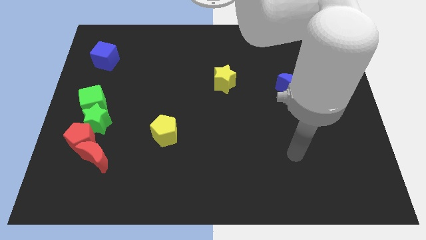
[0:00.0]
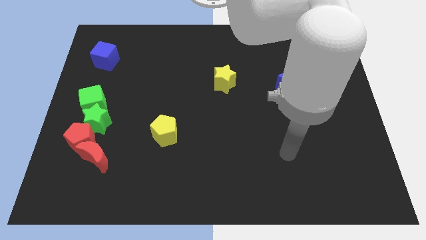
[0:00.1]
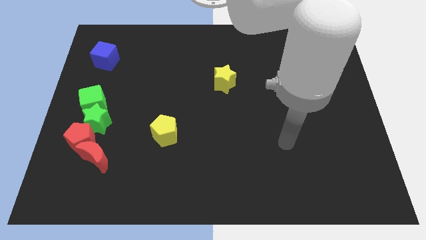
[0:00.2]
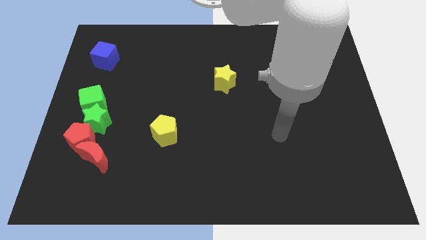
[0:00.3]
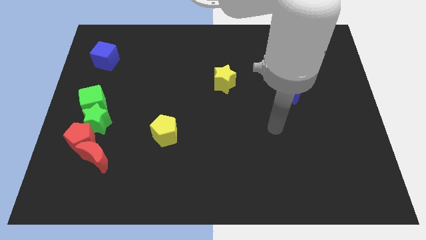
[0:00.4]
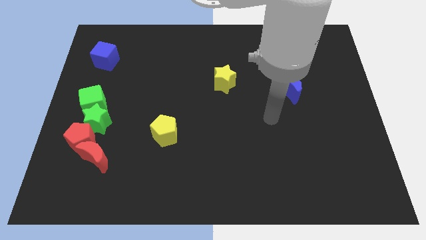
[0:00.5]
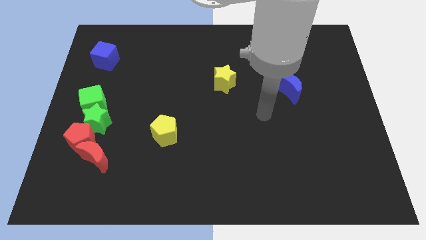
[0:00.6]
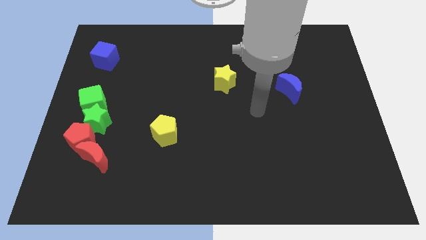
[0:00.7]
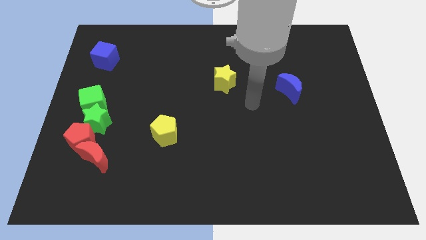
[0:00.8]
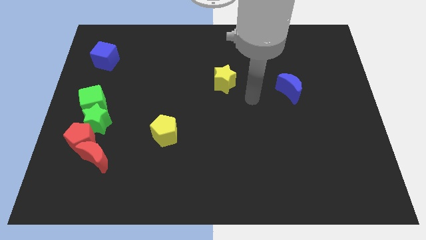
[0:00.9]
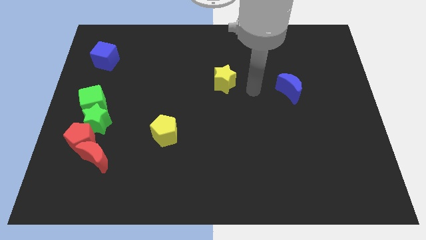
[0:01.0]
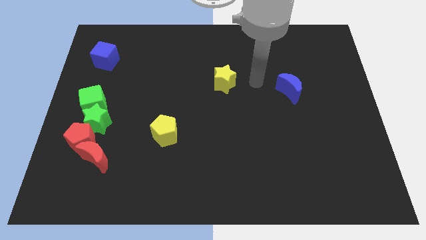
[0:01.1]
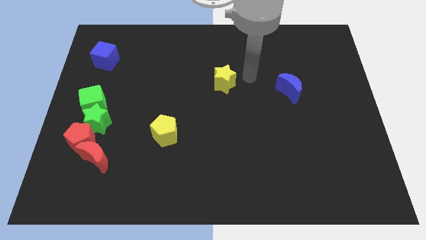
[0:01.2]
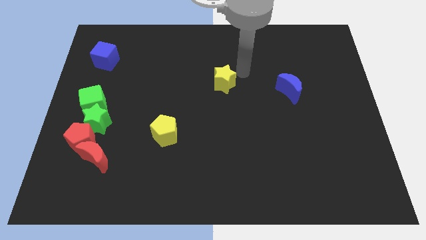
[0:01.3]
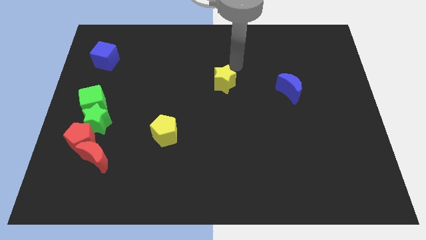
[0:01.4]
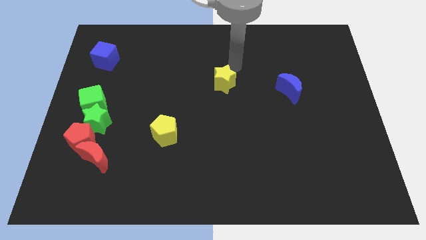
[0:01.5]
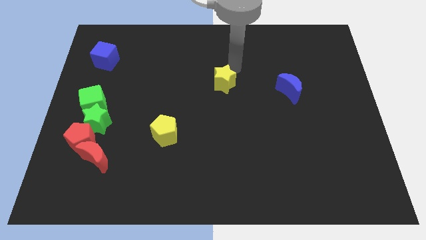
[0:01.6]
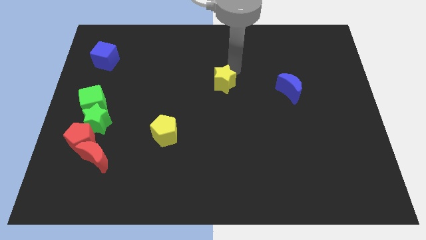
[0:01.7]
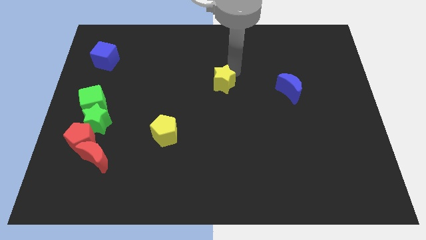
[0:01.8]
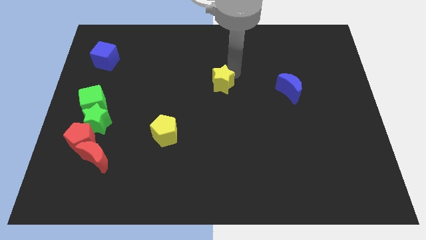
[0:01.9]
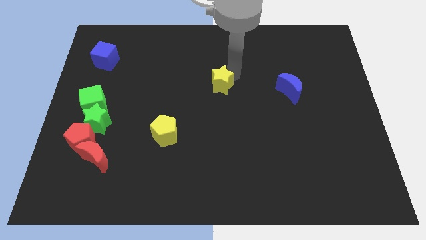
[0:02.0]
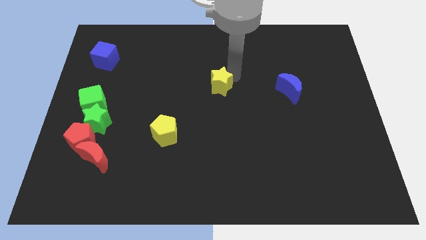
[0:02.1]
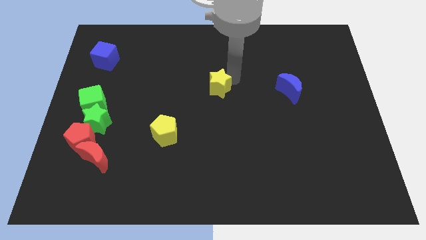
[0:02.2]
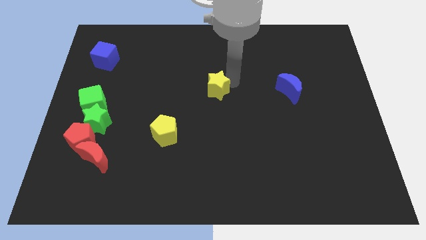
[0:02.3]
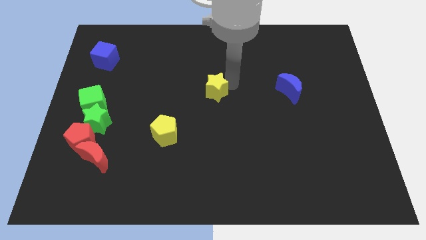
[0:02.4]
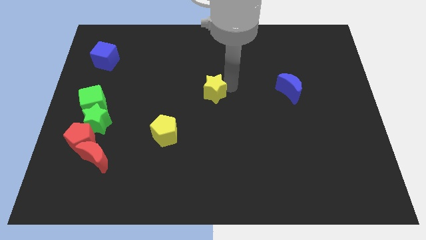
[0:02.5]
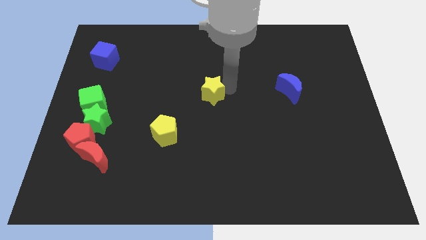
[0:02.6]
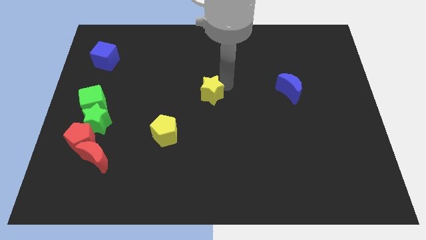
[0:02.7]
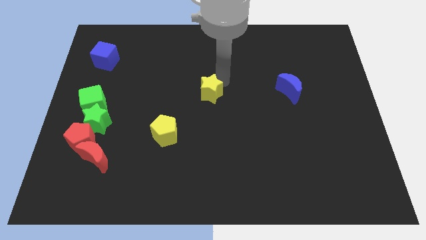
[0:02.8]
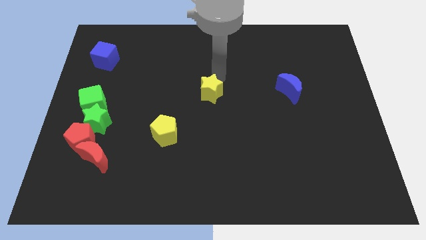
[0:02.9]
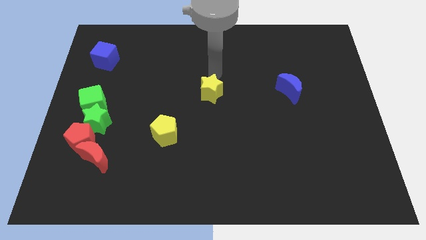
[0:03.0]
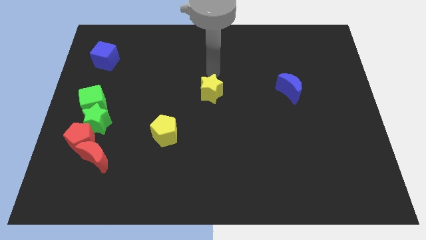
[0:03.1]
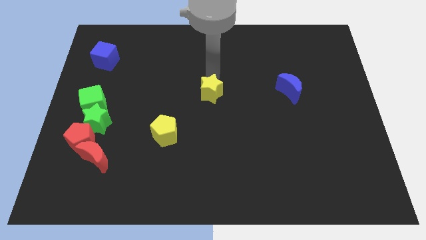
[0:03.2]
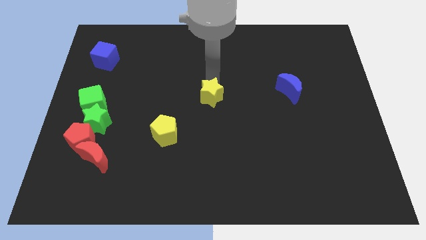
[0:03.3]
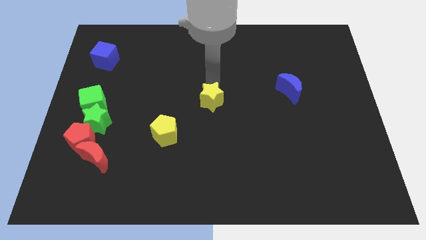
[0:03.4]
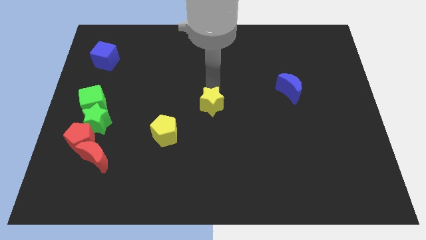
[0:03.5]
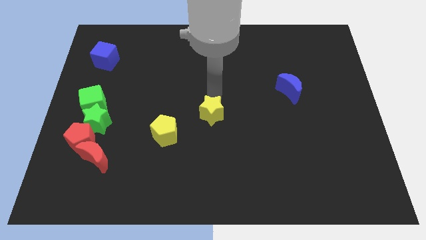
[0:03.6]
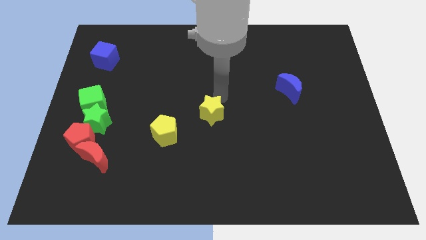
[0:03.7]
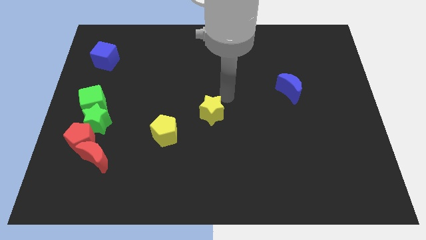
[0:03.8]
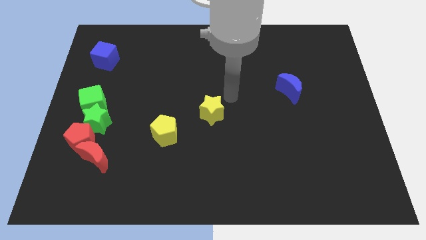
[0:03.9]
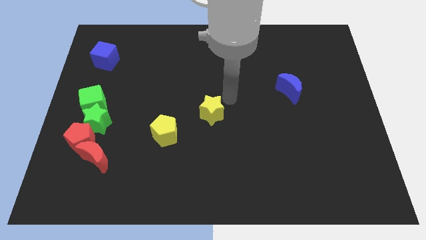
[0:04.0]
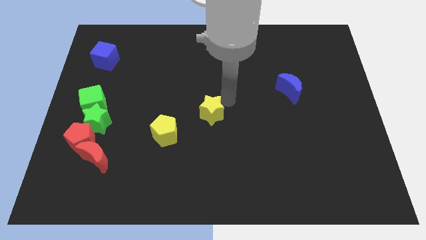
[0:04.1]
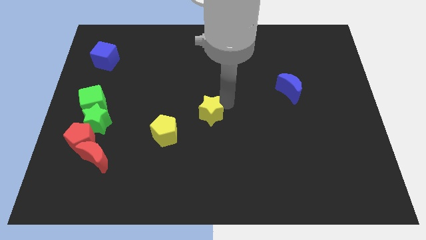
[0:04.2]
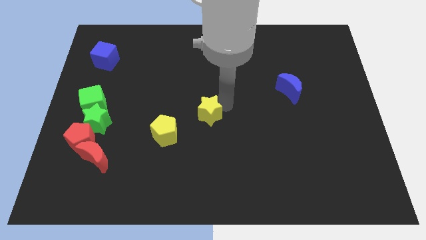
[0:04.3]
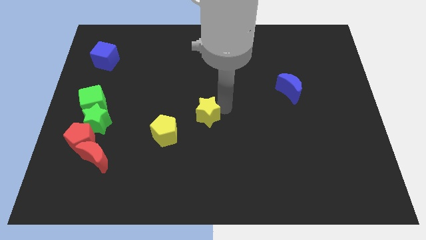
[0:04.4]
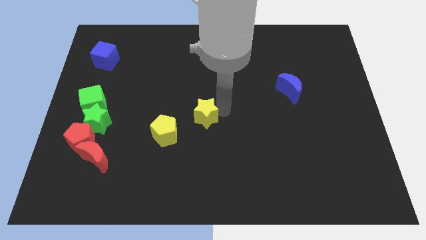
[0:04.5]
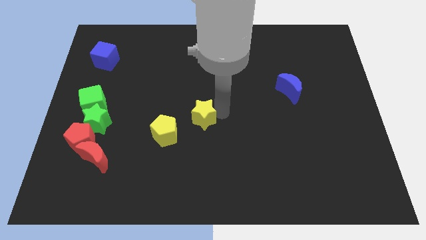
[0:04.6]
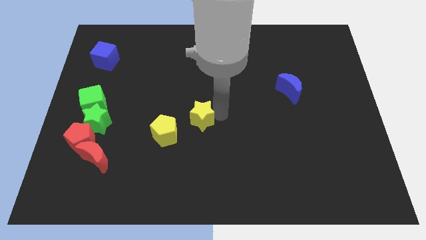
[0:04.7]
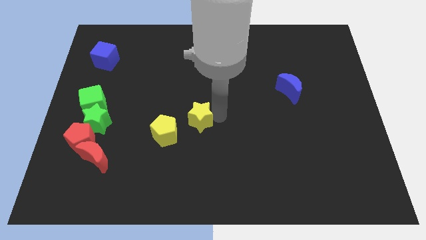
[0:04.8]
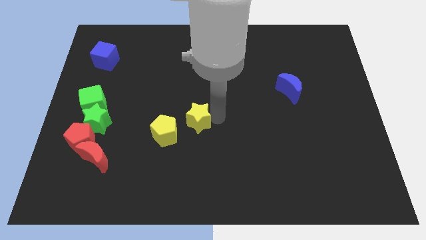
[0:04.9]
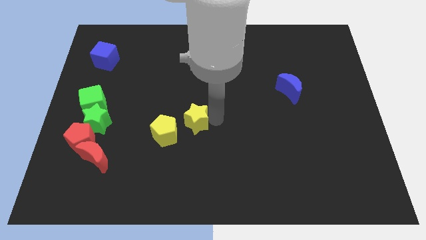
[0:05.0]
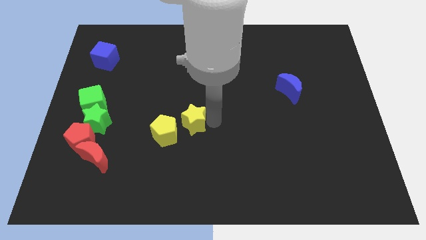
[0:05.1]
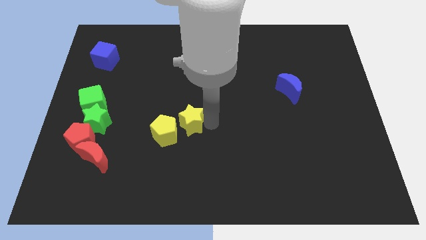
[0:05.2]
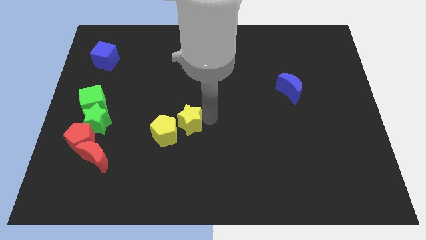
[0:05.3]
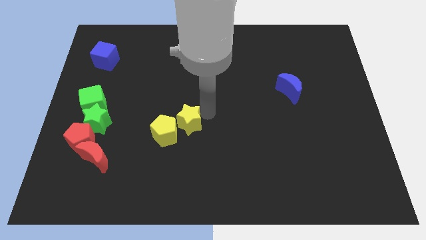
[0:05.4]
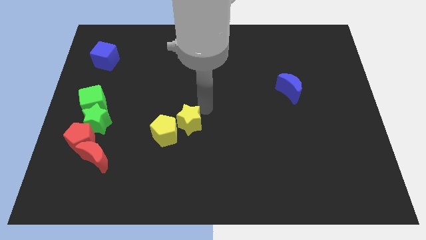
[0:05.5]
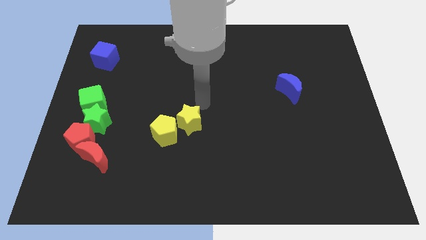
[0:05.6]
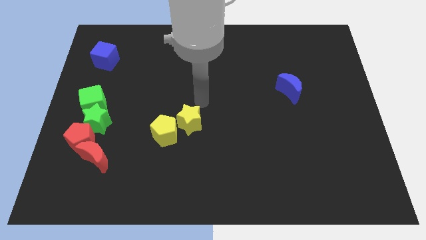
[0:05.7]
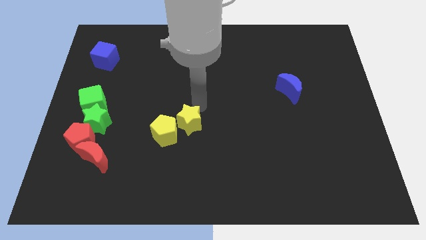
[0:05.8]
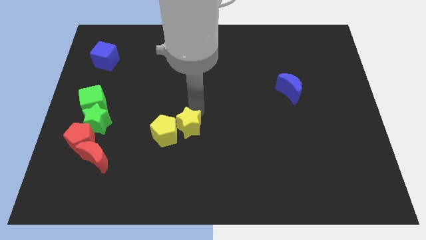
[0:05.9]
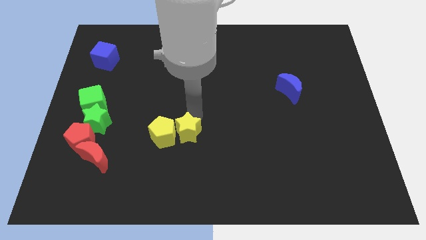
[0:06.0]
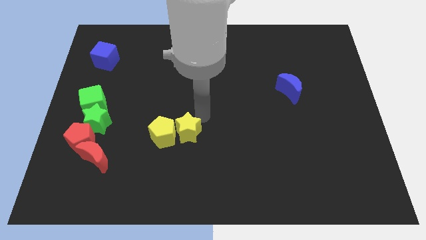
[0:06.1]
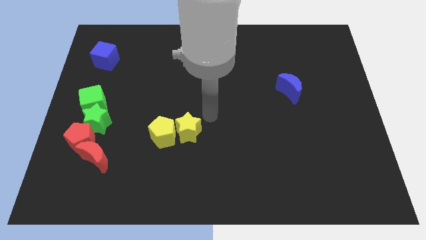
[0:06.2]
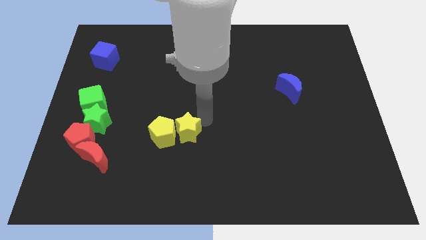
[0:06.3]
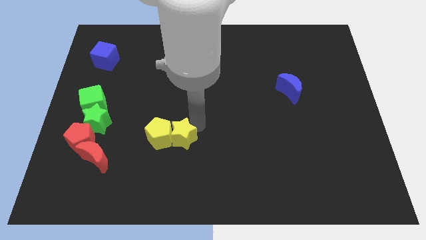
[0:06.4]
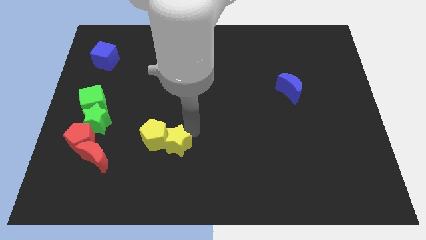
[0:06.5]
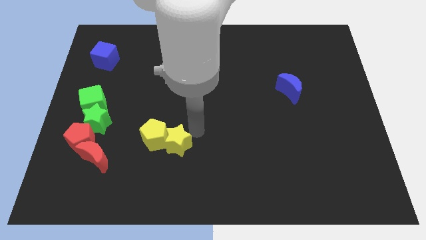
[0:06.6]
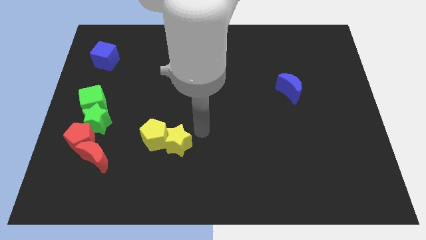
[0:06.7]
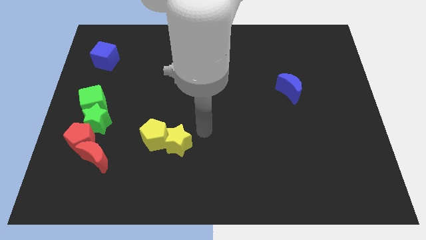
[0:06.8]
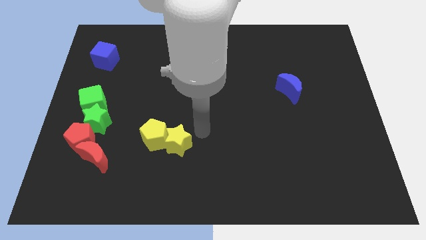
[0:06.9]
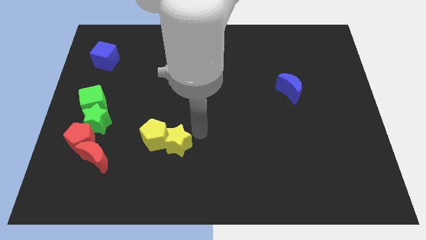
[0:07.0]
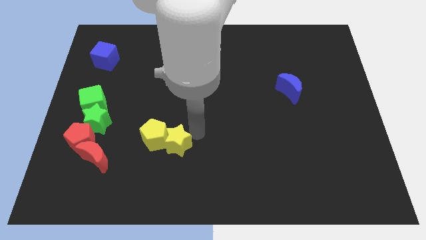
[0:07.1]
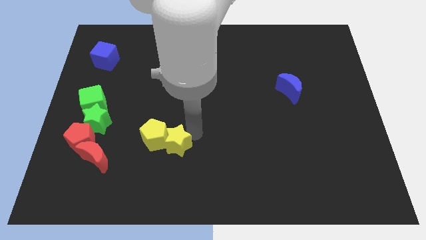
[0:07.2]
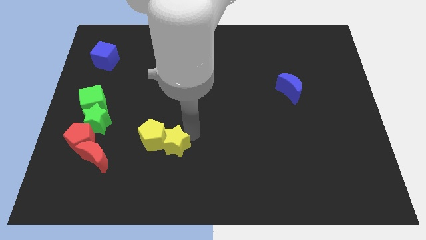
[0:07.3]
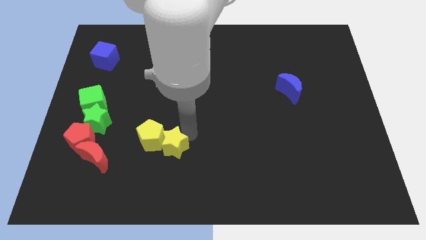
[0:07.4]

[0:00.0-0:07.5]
slide the yellow star diagonally downwards and left

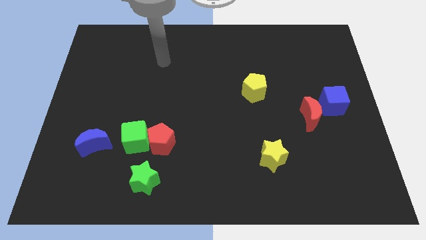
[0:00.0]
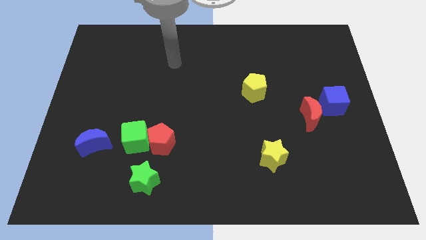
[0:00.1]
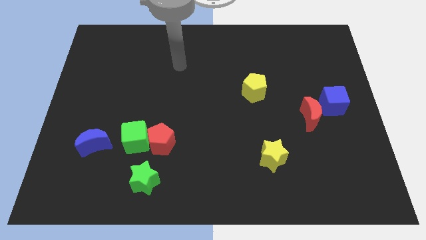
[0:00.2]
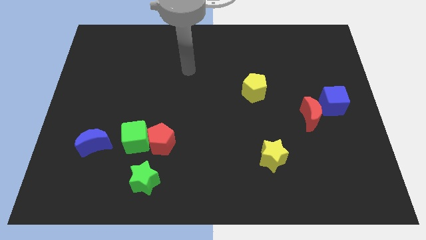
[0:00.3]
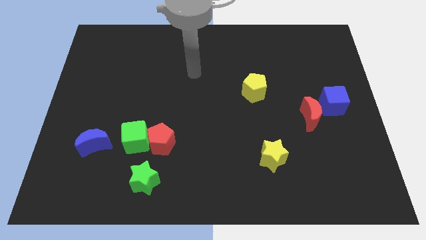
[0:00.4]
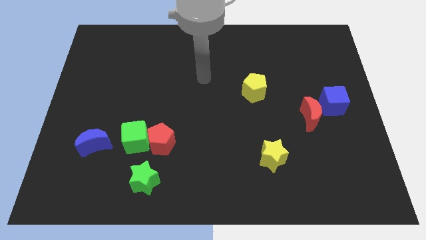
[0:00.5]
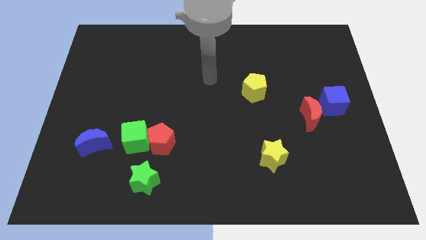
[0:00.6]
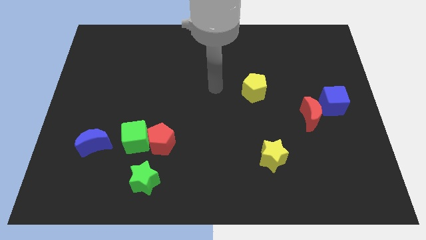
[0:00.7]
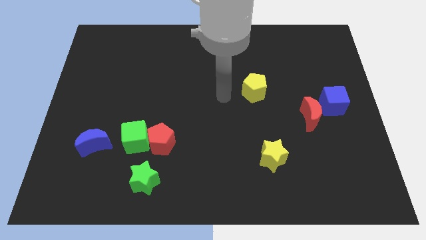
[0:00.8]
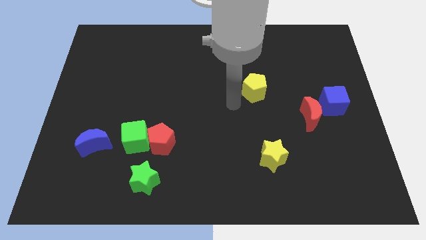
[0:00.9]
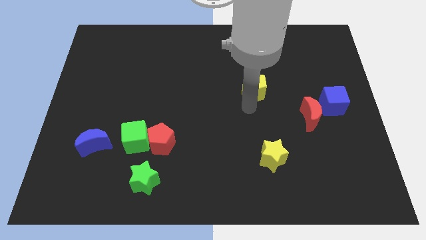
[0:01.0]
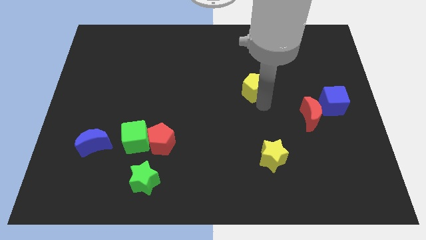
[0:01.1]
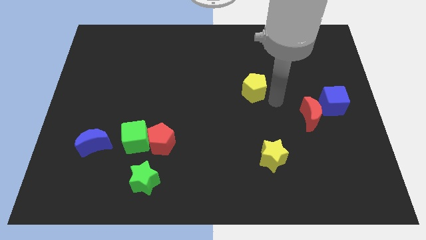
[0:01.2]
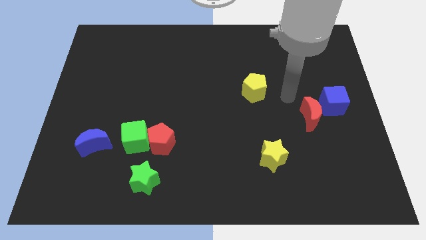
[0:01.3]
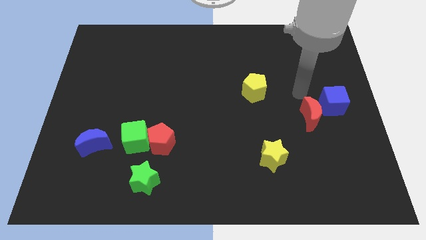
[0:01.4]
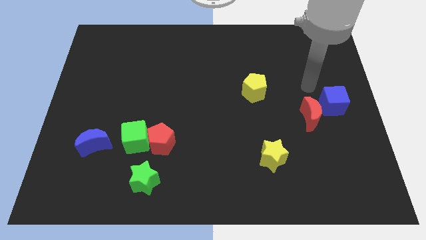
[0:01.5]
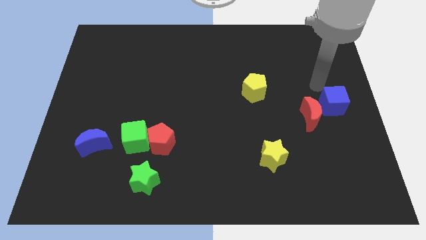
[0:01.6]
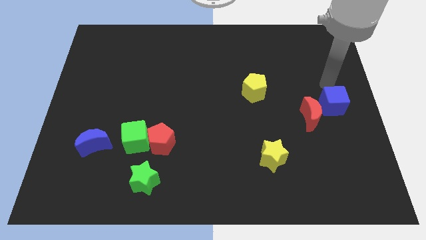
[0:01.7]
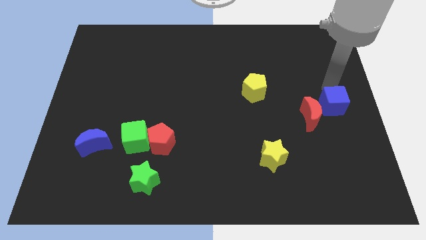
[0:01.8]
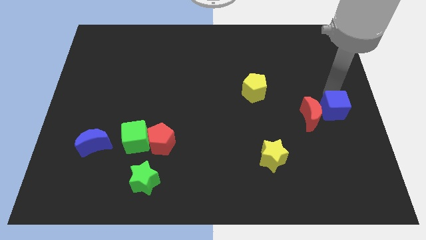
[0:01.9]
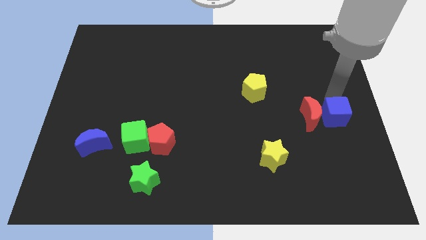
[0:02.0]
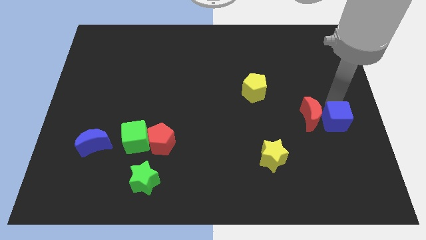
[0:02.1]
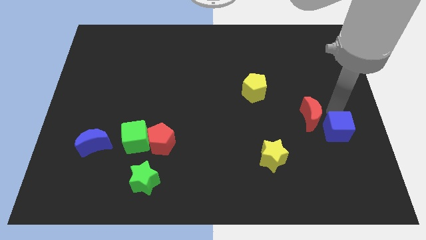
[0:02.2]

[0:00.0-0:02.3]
push the blue cube a little bit downwards
